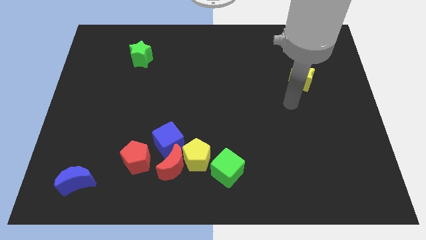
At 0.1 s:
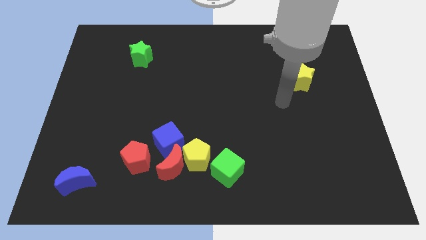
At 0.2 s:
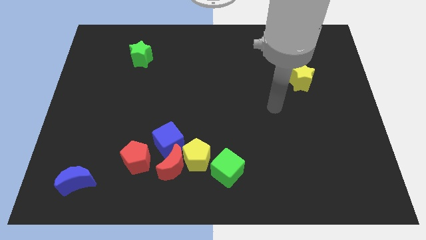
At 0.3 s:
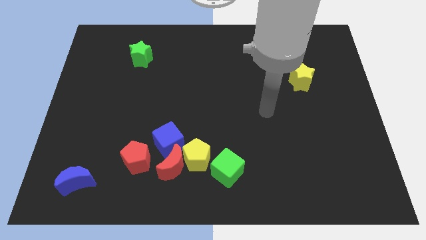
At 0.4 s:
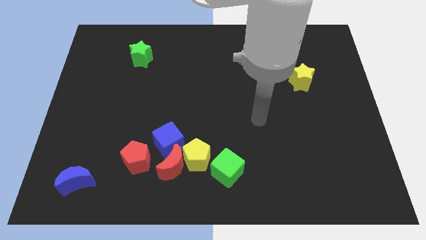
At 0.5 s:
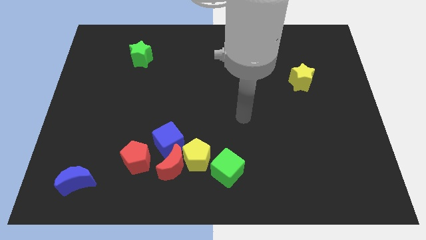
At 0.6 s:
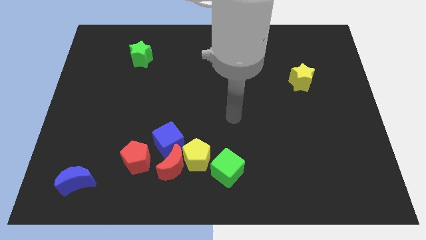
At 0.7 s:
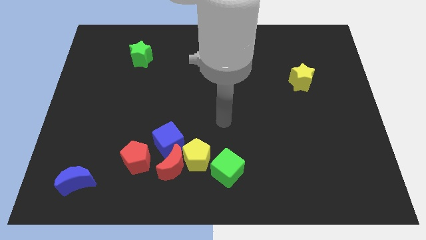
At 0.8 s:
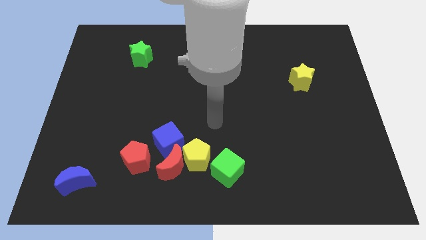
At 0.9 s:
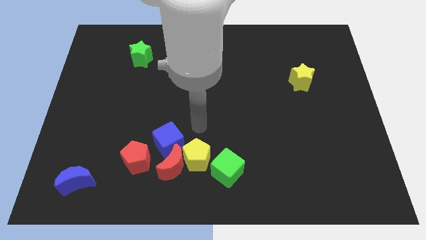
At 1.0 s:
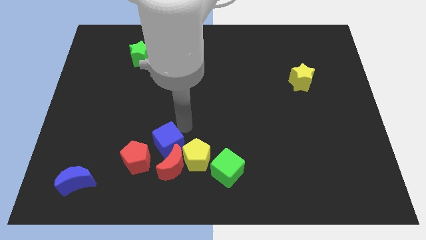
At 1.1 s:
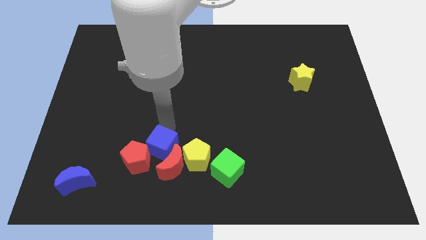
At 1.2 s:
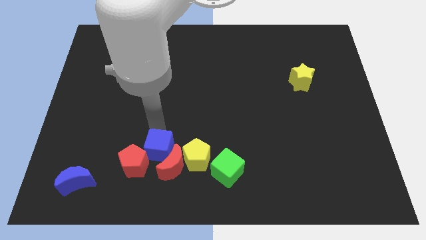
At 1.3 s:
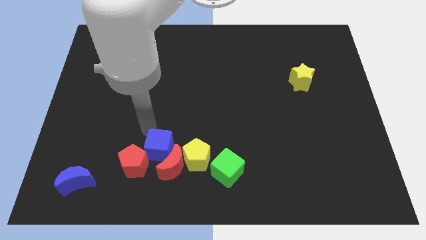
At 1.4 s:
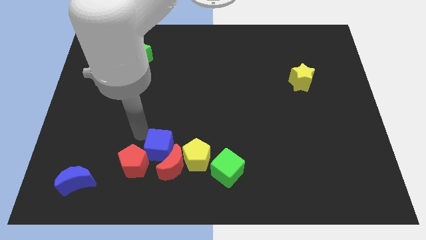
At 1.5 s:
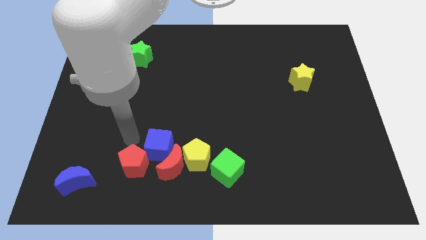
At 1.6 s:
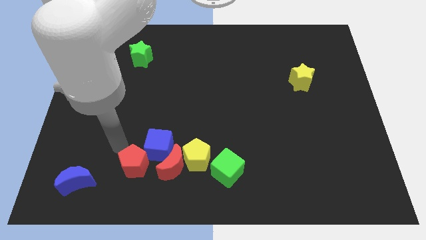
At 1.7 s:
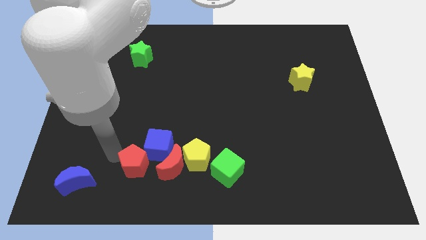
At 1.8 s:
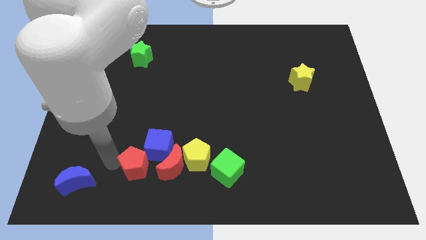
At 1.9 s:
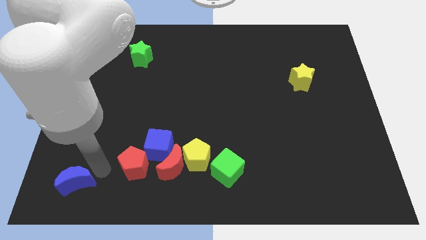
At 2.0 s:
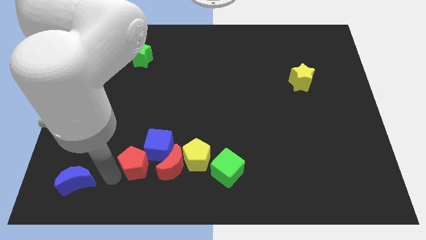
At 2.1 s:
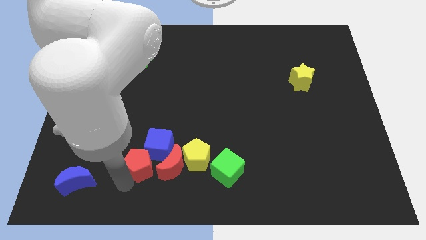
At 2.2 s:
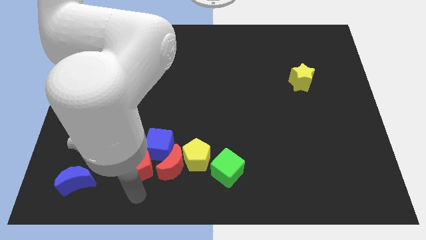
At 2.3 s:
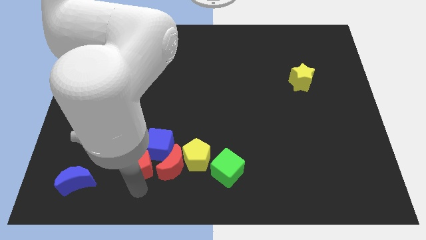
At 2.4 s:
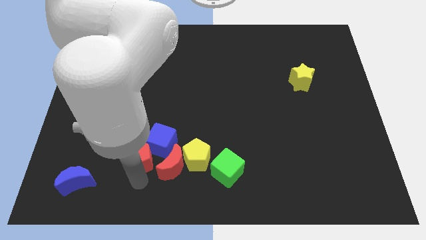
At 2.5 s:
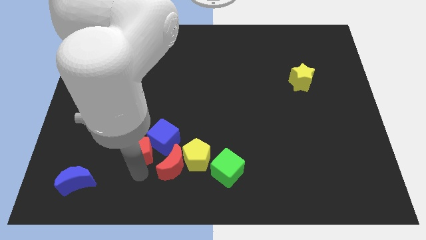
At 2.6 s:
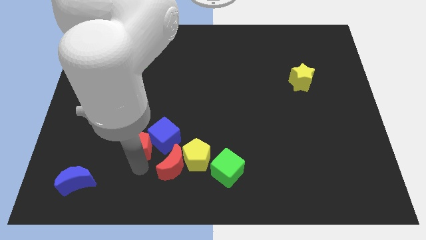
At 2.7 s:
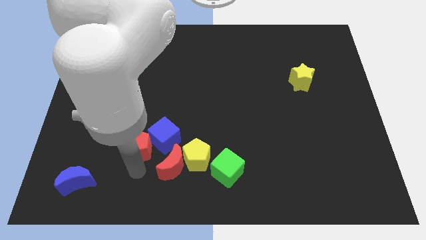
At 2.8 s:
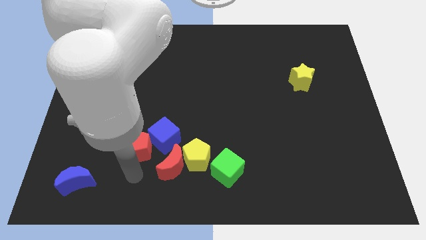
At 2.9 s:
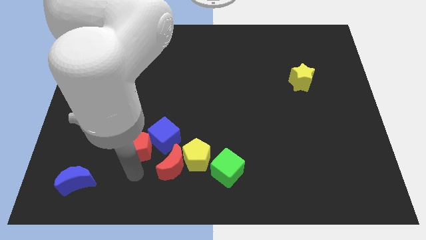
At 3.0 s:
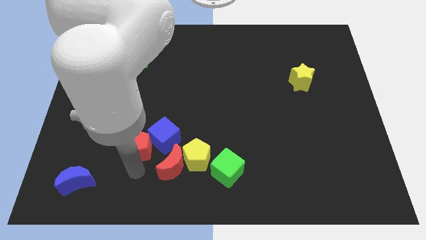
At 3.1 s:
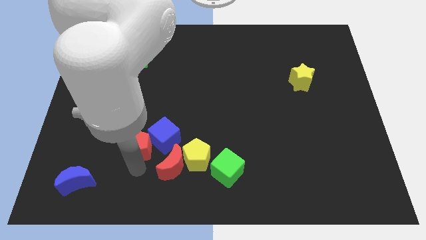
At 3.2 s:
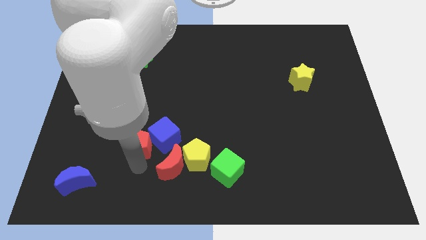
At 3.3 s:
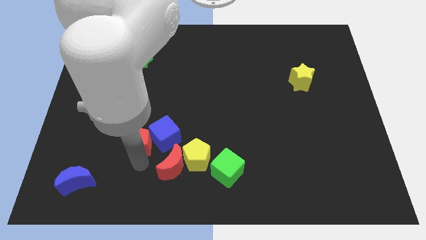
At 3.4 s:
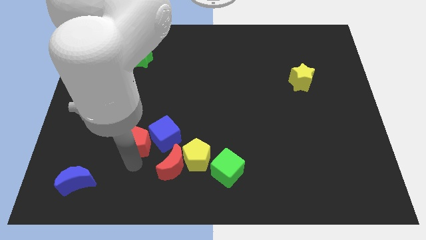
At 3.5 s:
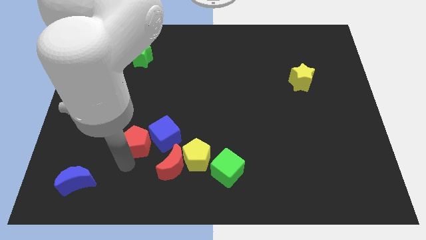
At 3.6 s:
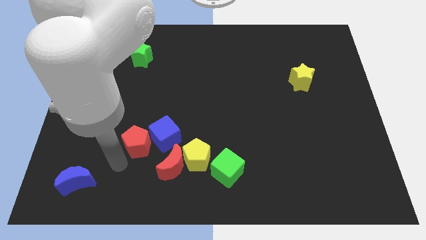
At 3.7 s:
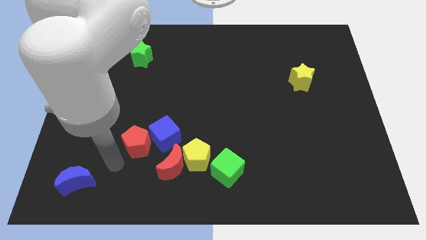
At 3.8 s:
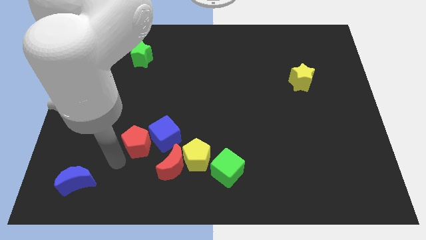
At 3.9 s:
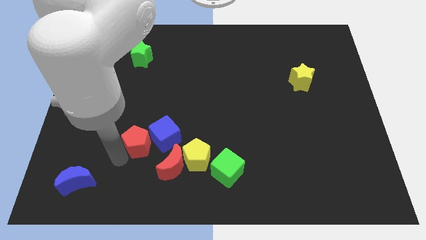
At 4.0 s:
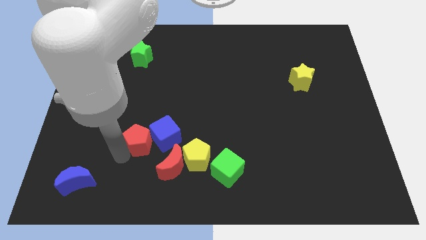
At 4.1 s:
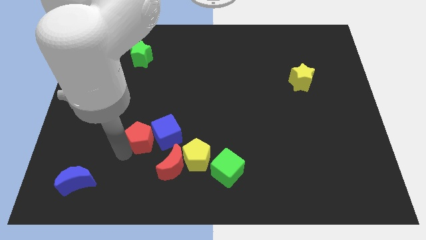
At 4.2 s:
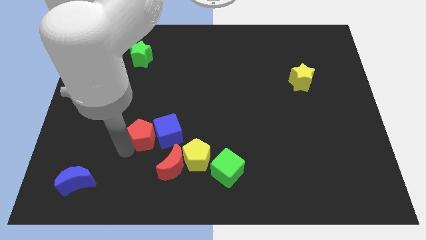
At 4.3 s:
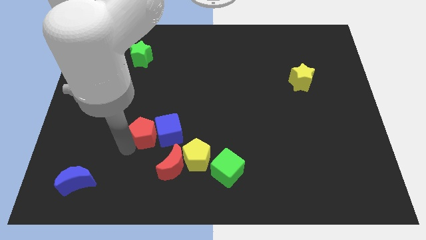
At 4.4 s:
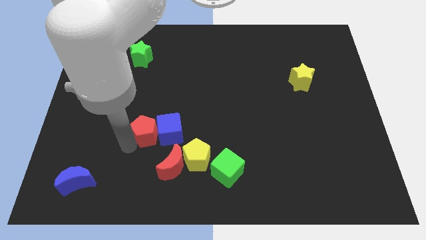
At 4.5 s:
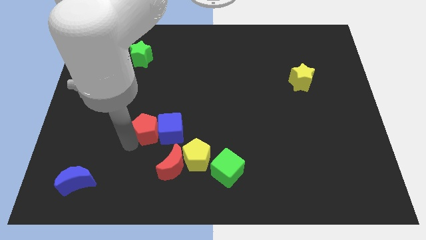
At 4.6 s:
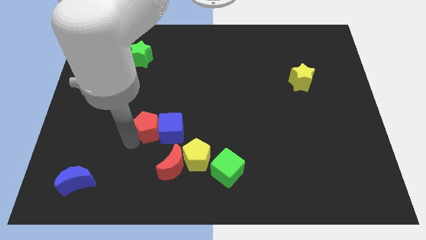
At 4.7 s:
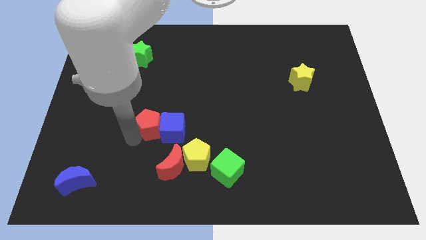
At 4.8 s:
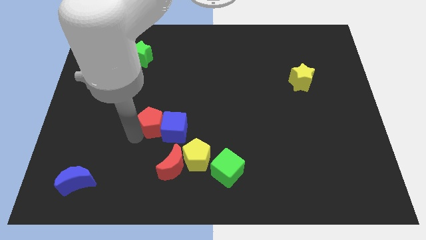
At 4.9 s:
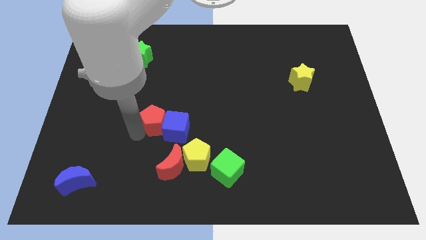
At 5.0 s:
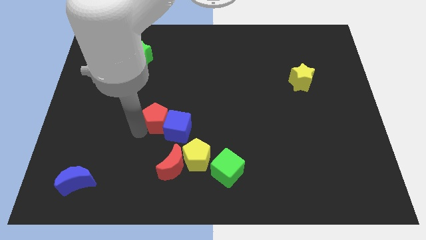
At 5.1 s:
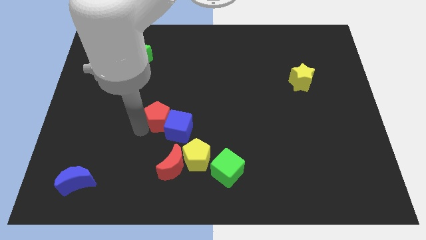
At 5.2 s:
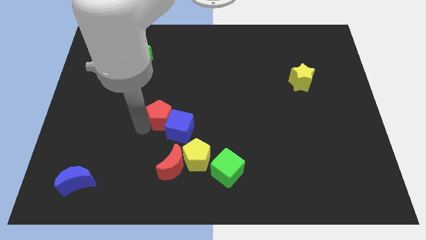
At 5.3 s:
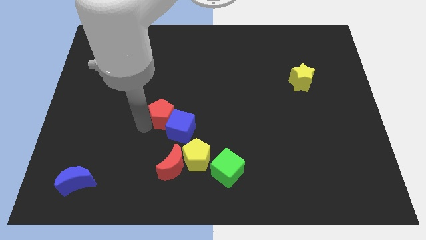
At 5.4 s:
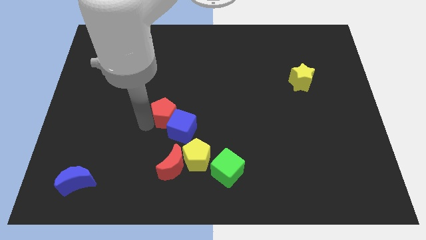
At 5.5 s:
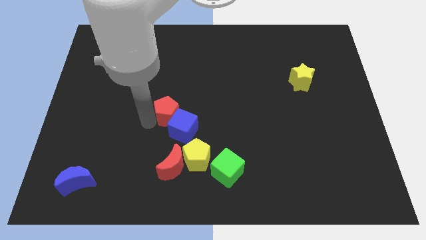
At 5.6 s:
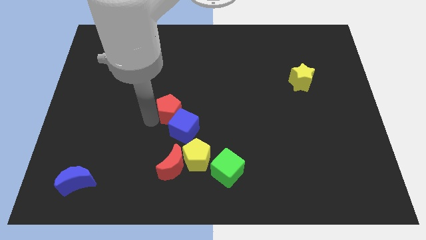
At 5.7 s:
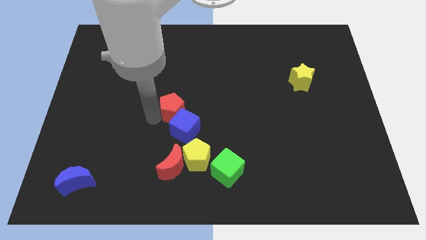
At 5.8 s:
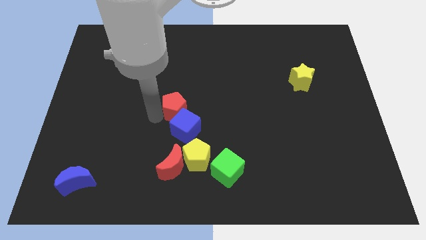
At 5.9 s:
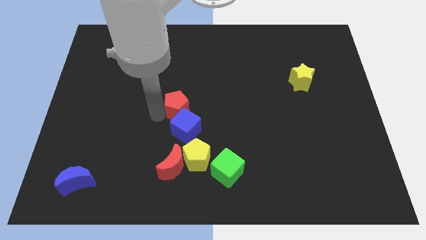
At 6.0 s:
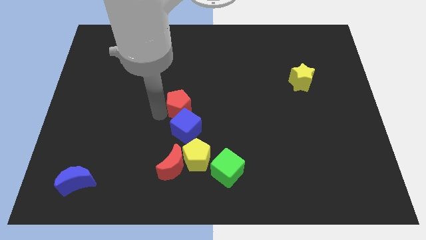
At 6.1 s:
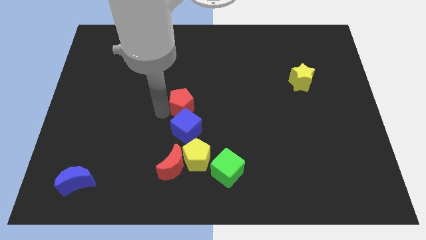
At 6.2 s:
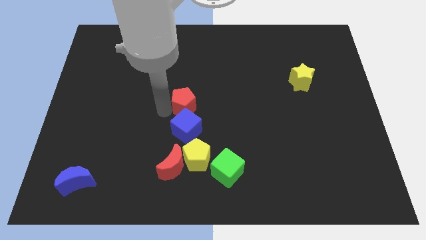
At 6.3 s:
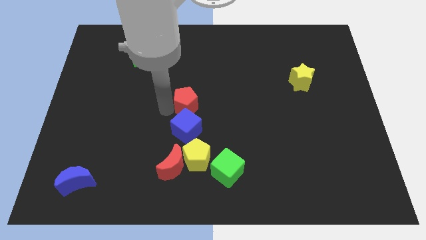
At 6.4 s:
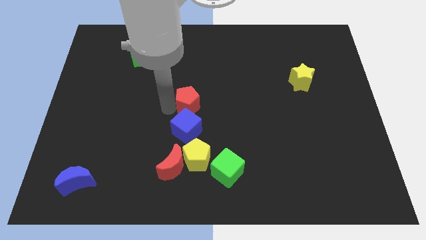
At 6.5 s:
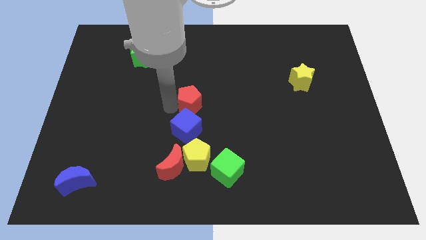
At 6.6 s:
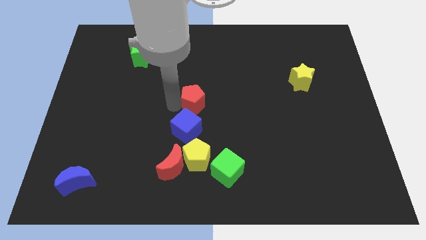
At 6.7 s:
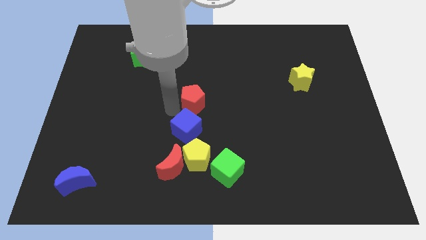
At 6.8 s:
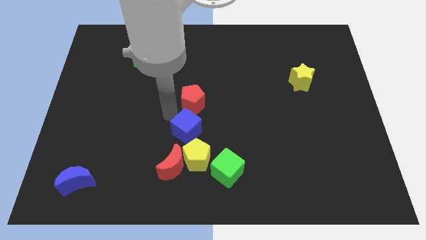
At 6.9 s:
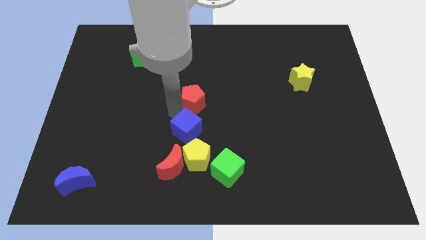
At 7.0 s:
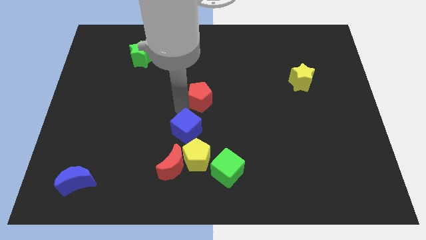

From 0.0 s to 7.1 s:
move the red pentagon up and right diagonally

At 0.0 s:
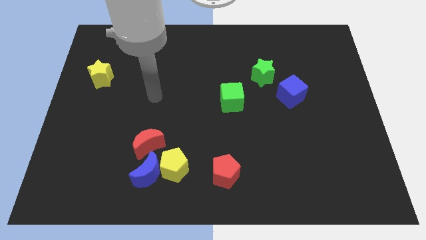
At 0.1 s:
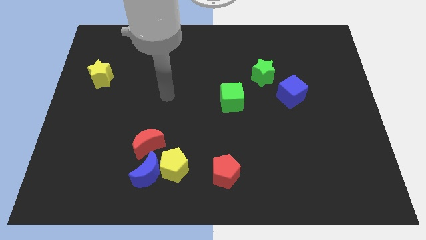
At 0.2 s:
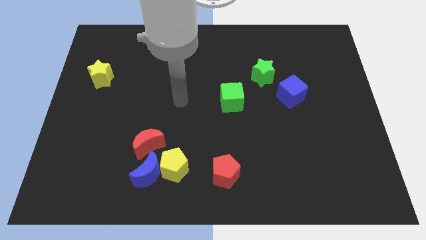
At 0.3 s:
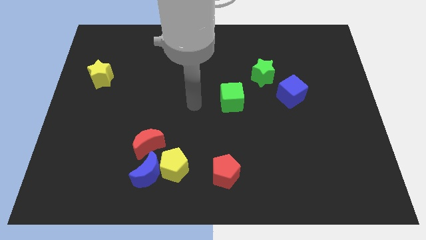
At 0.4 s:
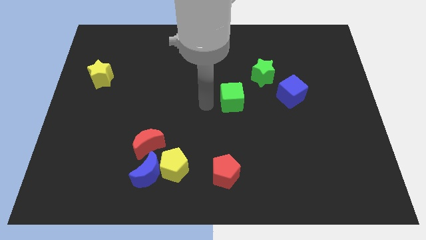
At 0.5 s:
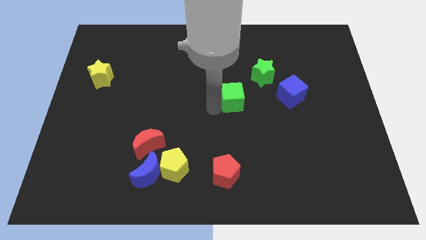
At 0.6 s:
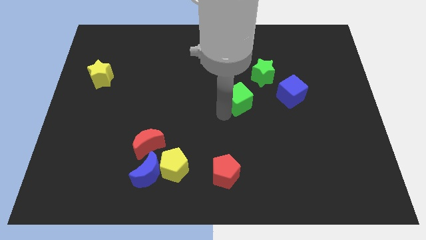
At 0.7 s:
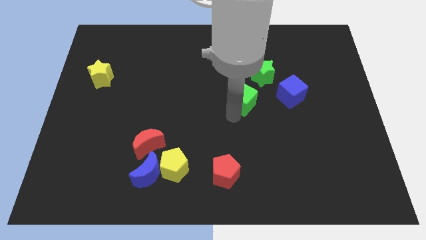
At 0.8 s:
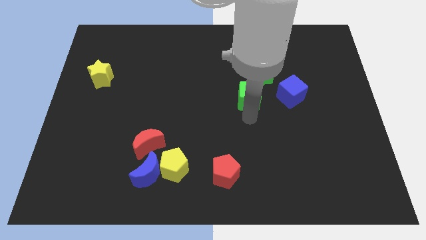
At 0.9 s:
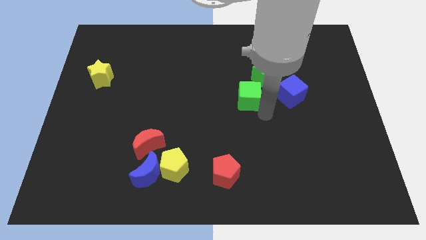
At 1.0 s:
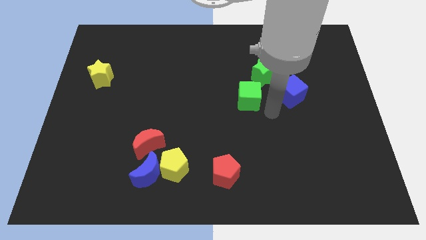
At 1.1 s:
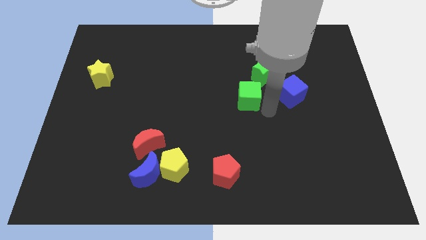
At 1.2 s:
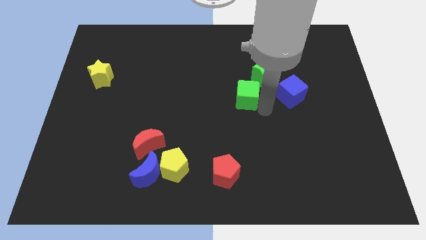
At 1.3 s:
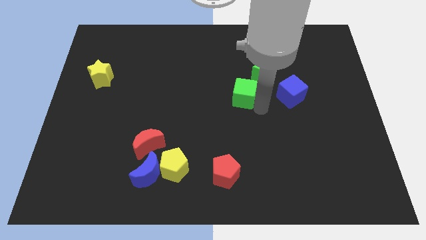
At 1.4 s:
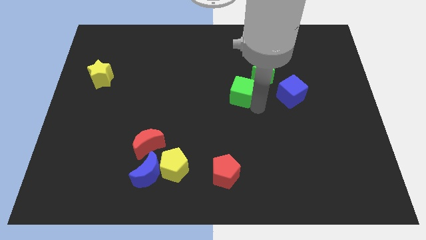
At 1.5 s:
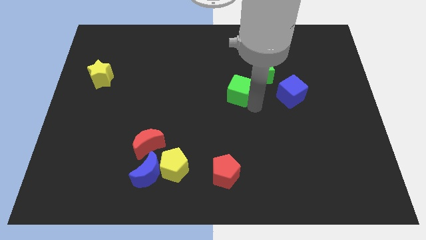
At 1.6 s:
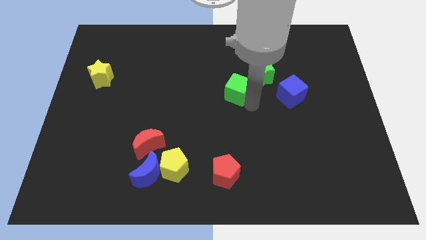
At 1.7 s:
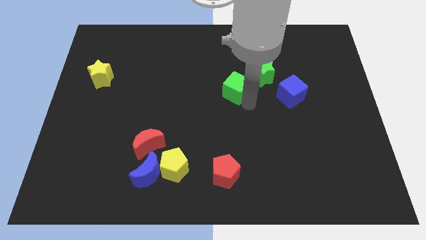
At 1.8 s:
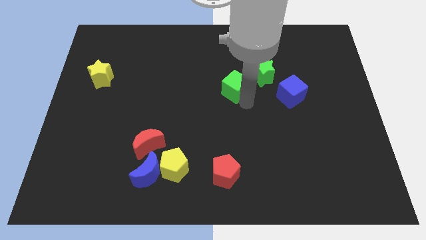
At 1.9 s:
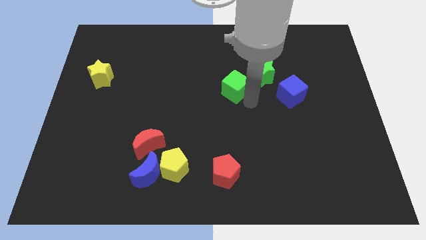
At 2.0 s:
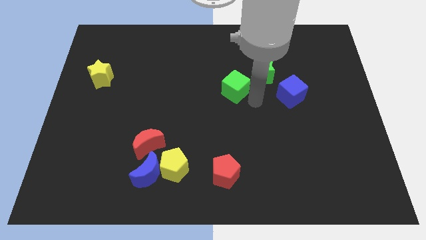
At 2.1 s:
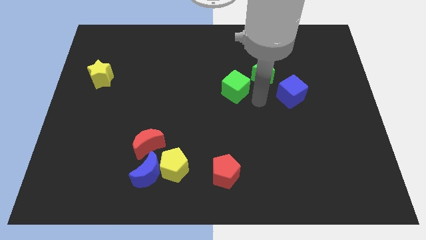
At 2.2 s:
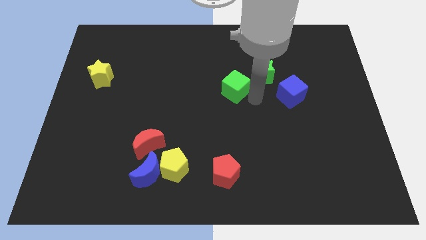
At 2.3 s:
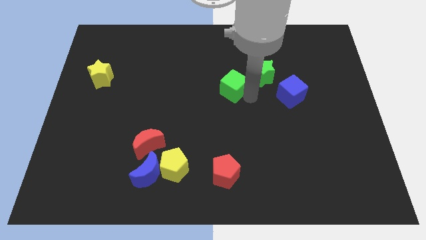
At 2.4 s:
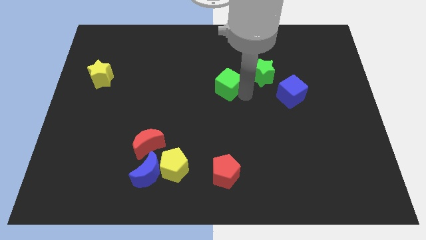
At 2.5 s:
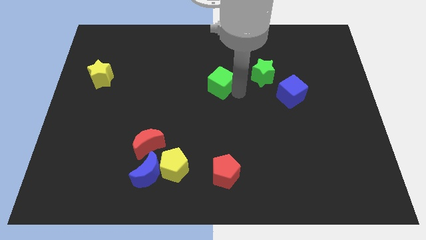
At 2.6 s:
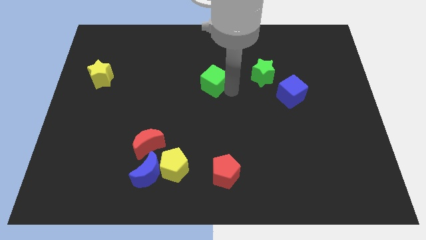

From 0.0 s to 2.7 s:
slide the green cube a little bit upwards and then left
